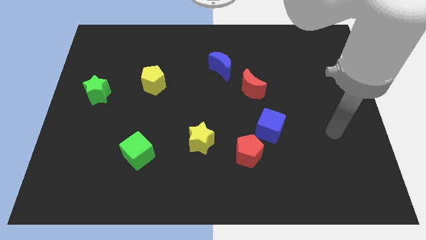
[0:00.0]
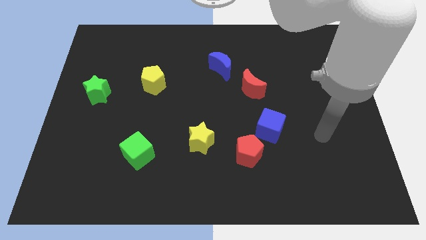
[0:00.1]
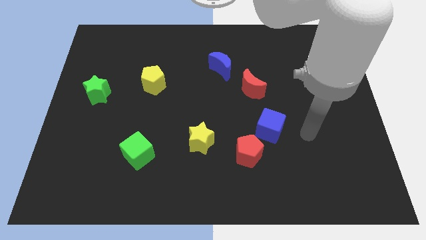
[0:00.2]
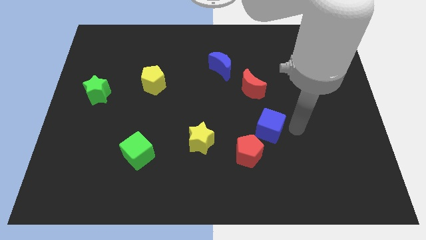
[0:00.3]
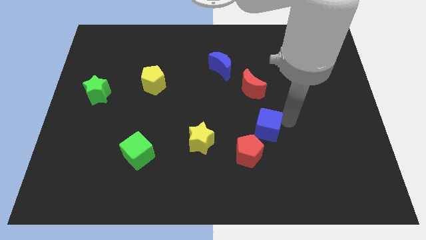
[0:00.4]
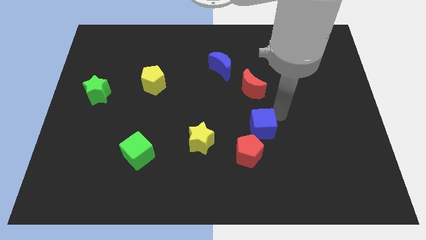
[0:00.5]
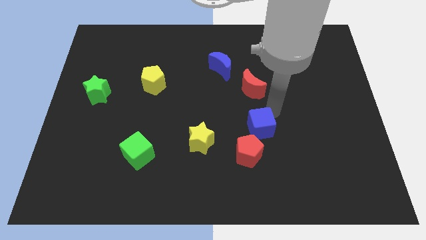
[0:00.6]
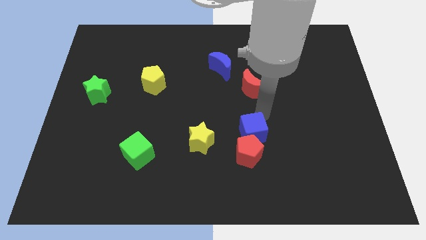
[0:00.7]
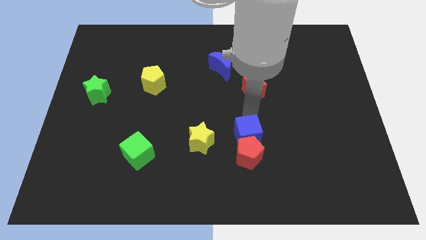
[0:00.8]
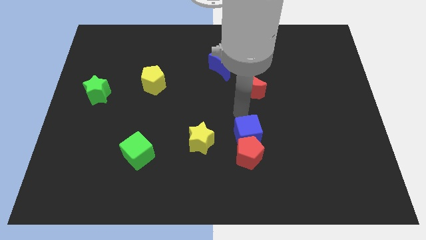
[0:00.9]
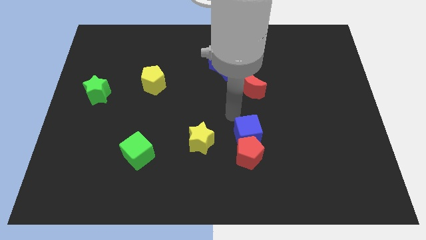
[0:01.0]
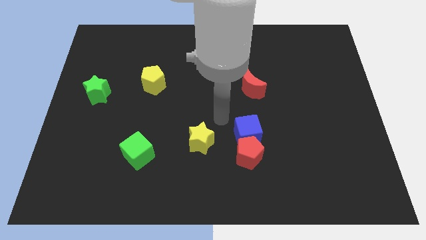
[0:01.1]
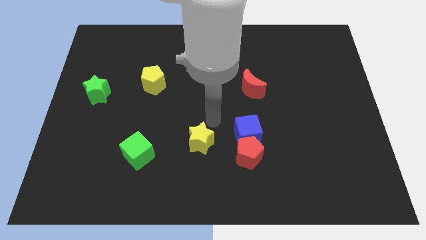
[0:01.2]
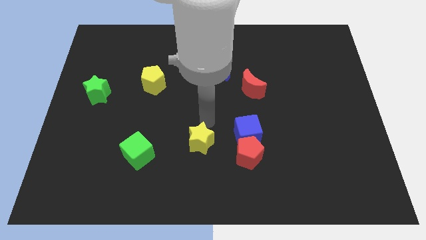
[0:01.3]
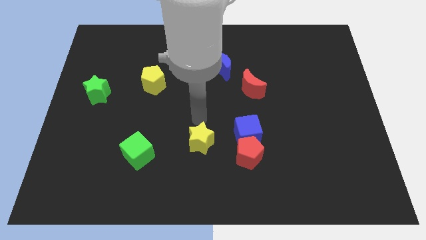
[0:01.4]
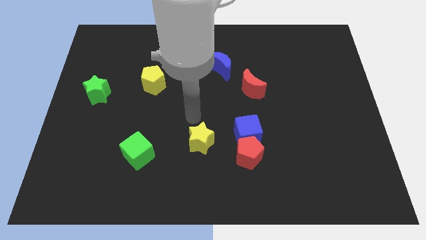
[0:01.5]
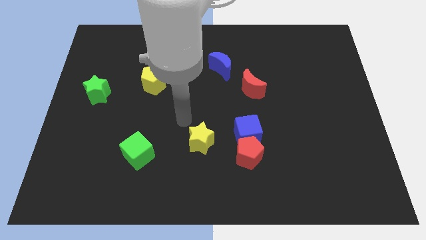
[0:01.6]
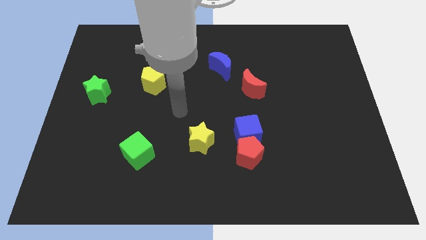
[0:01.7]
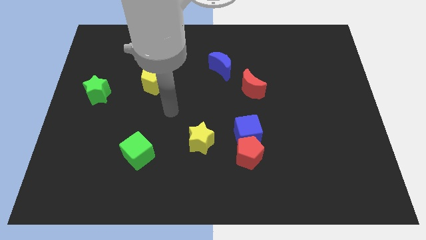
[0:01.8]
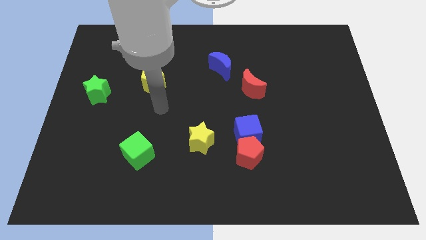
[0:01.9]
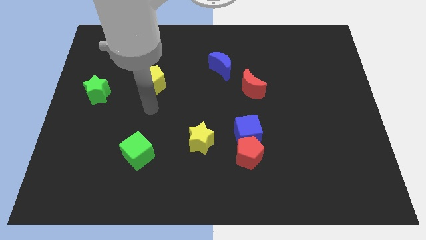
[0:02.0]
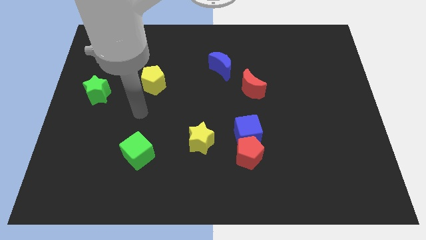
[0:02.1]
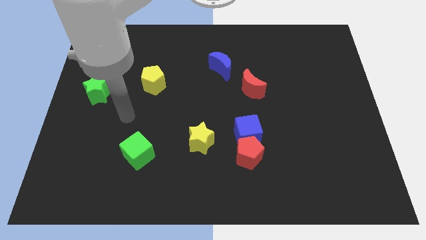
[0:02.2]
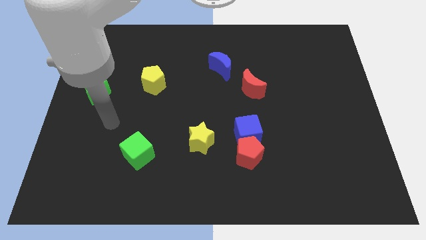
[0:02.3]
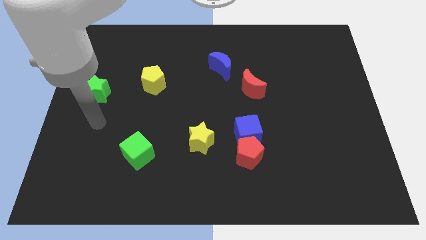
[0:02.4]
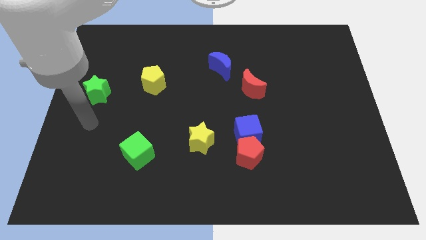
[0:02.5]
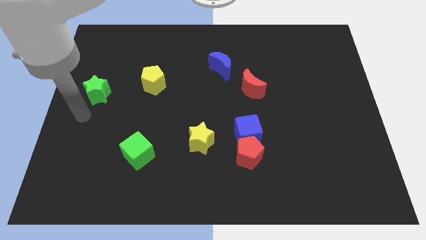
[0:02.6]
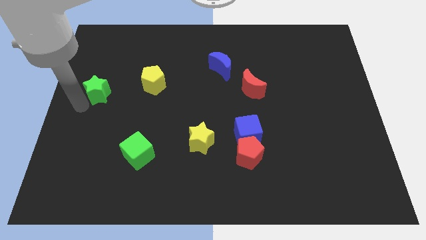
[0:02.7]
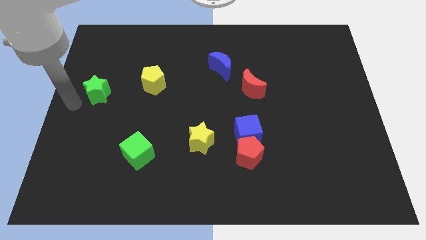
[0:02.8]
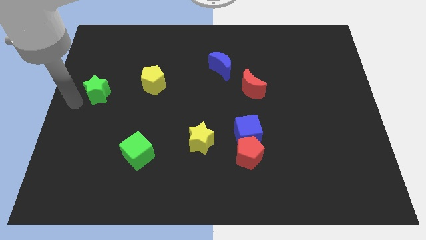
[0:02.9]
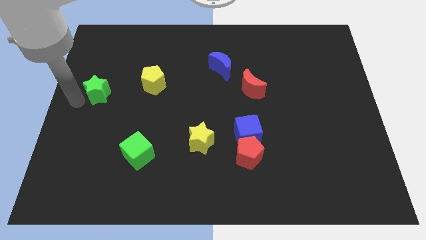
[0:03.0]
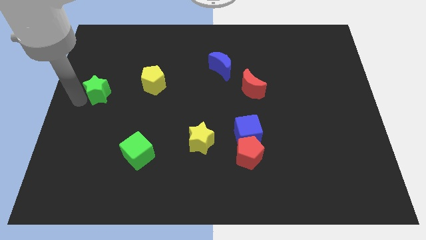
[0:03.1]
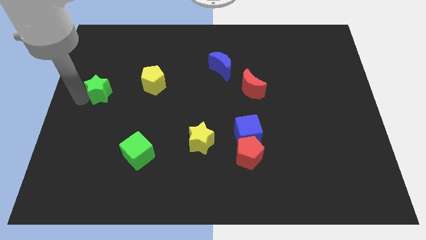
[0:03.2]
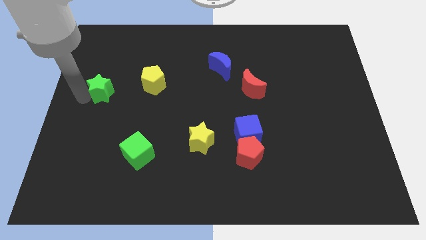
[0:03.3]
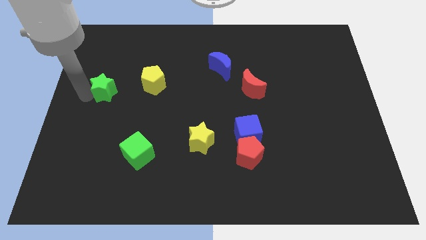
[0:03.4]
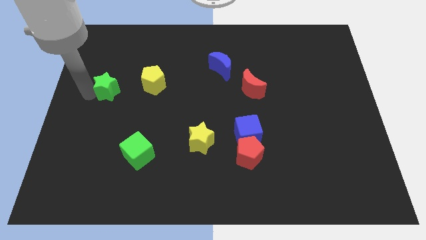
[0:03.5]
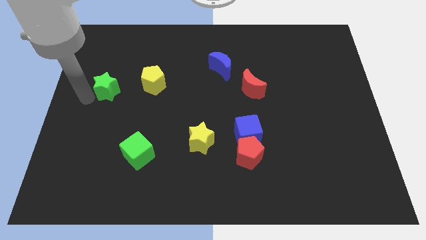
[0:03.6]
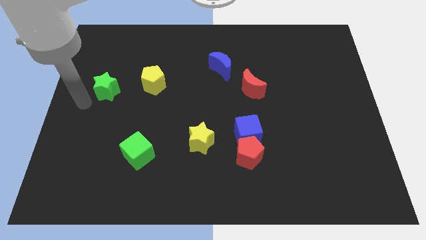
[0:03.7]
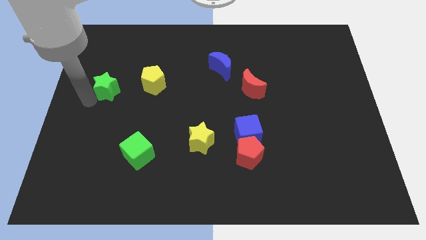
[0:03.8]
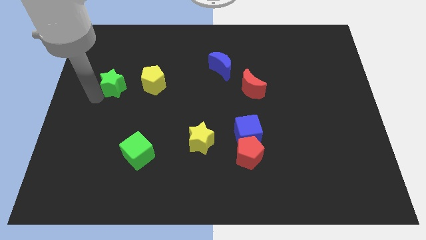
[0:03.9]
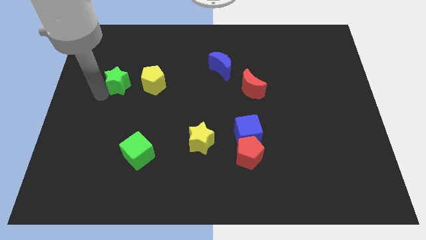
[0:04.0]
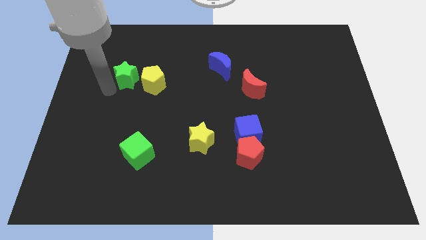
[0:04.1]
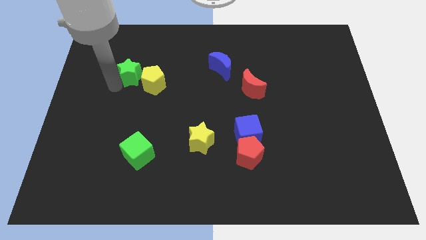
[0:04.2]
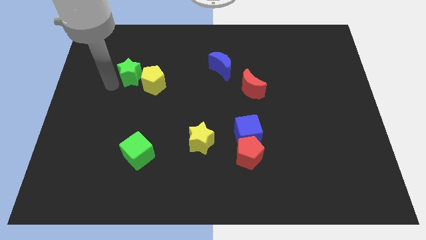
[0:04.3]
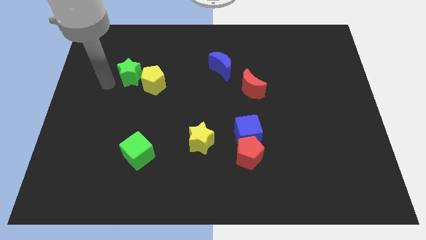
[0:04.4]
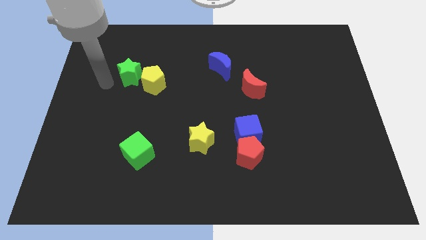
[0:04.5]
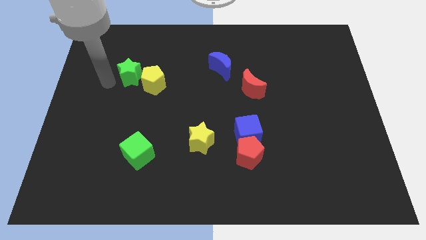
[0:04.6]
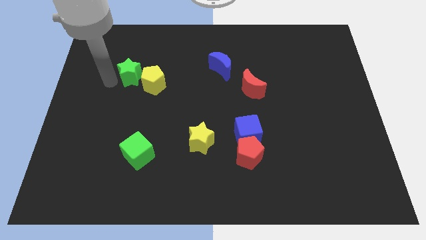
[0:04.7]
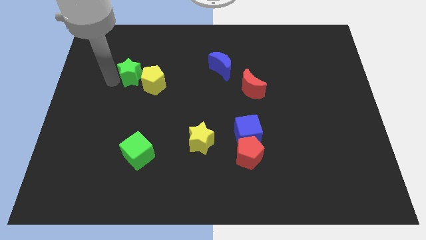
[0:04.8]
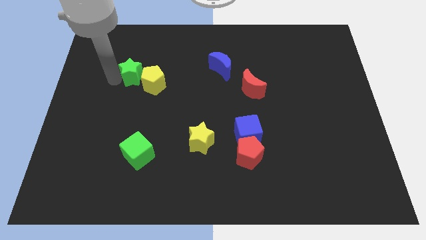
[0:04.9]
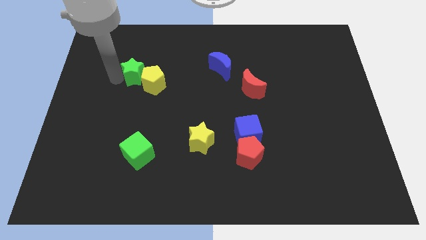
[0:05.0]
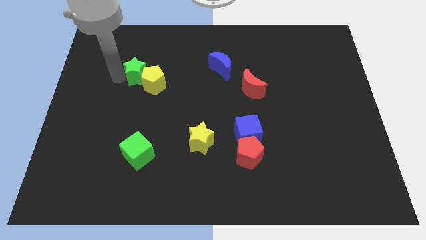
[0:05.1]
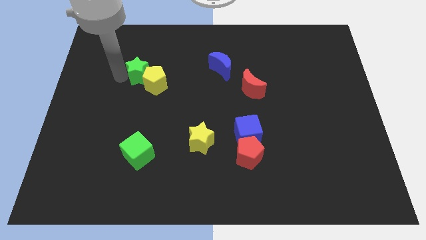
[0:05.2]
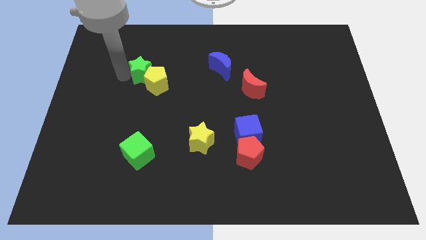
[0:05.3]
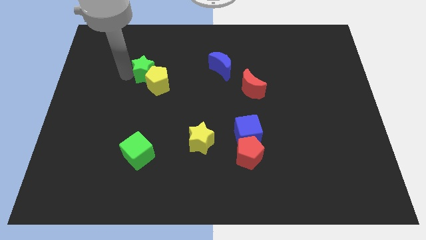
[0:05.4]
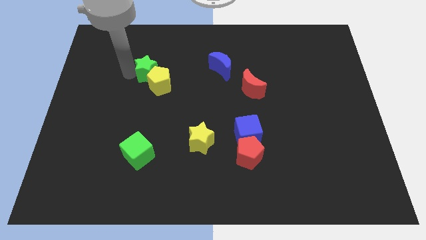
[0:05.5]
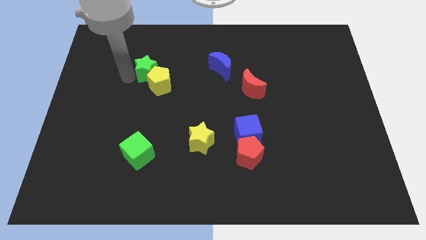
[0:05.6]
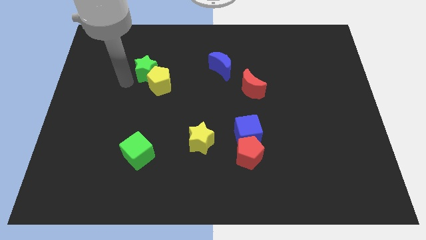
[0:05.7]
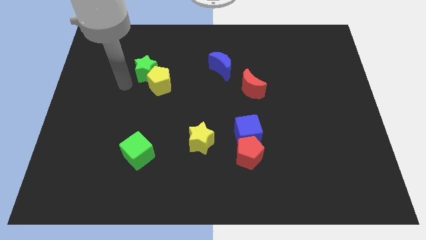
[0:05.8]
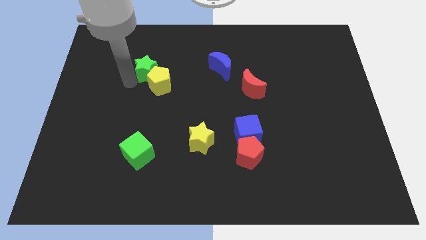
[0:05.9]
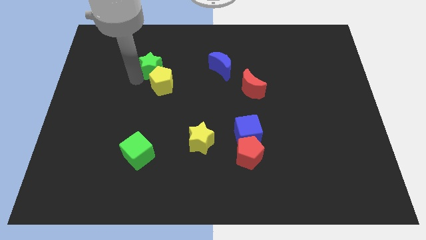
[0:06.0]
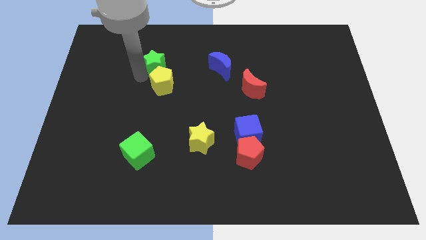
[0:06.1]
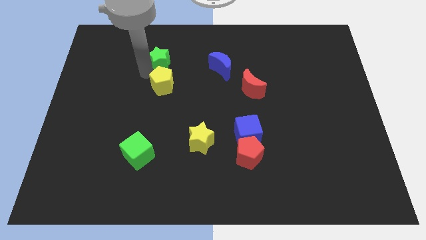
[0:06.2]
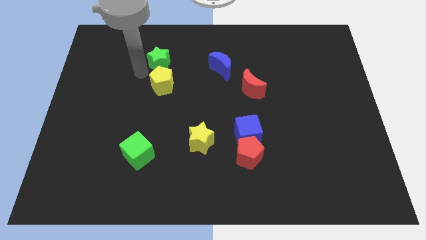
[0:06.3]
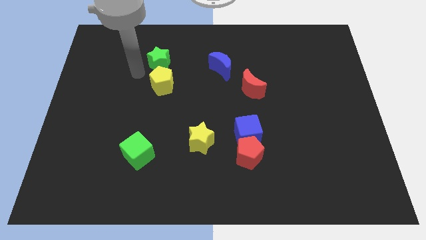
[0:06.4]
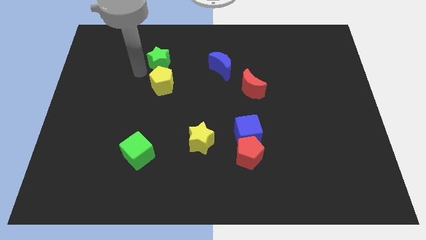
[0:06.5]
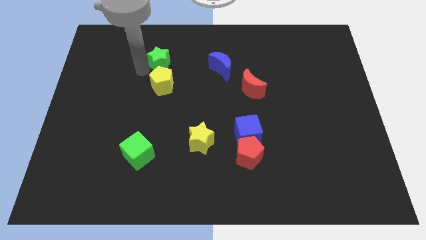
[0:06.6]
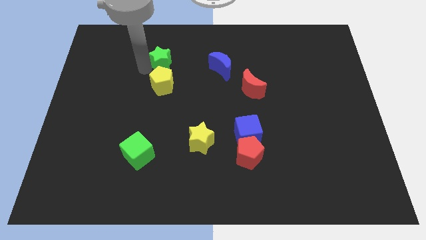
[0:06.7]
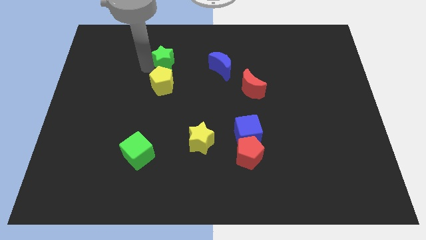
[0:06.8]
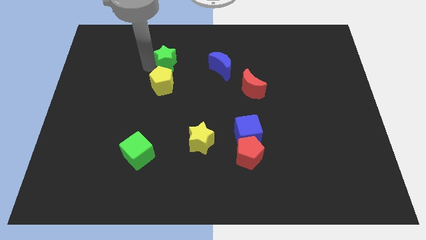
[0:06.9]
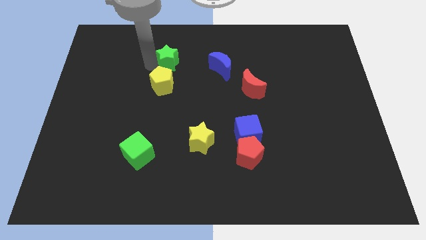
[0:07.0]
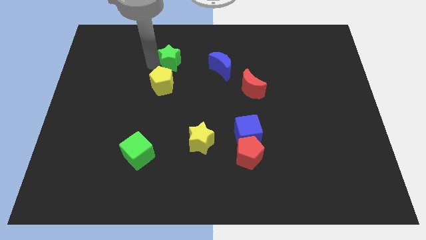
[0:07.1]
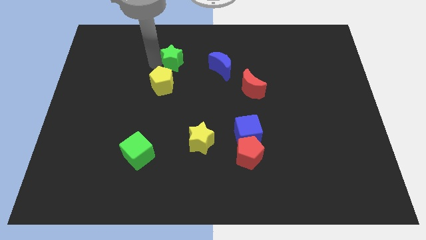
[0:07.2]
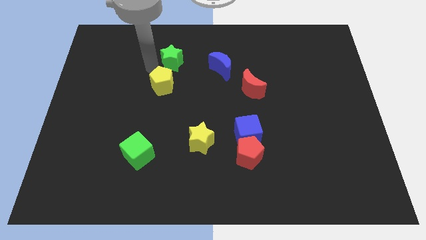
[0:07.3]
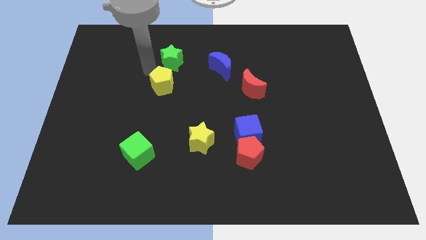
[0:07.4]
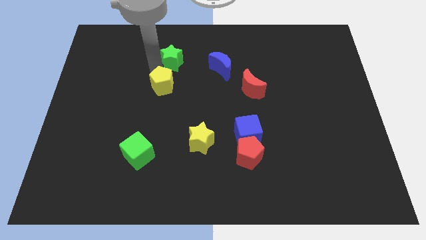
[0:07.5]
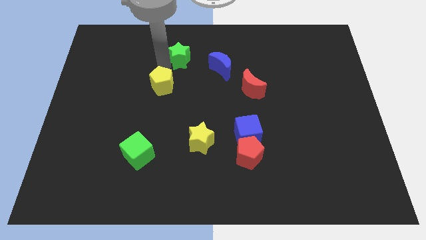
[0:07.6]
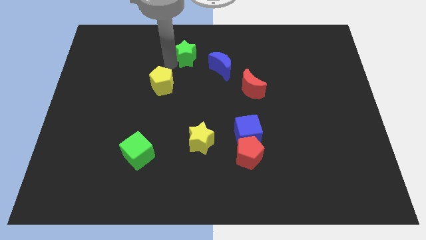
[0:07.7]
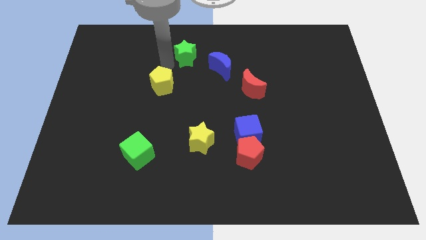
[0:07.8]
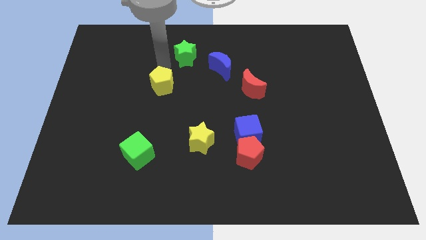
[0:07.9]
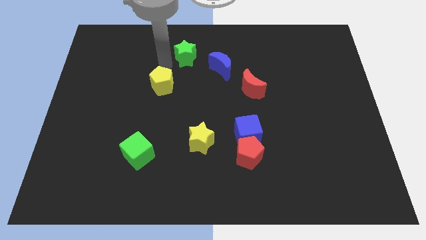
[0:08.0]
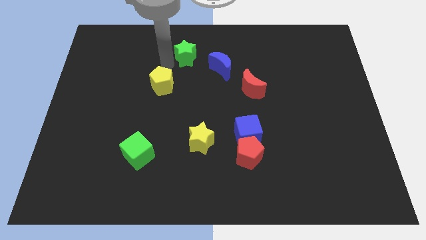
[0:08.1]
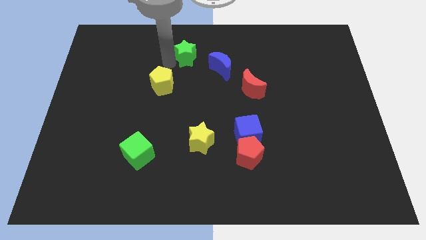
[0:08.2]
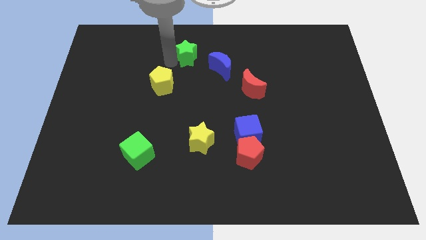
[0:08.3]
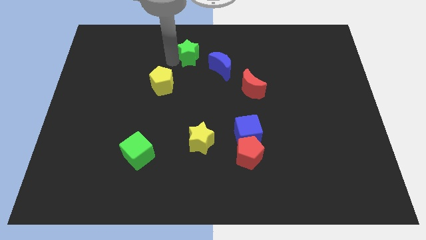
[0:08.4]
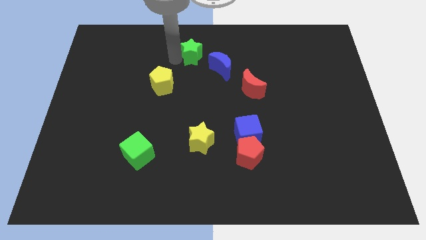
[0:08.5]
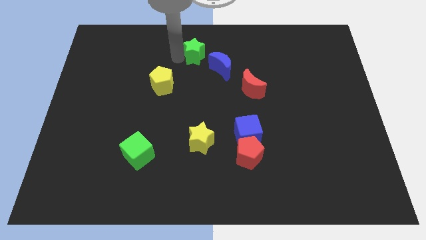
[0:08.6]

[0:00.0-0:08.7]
push the green star to the top side
